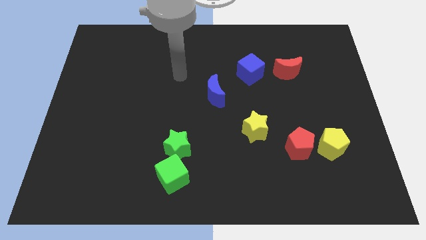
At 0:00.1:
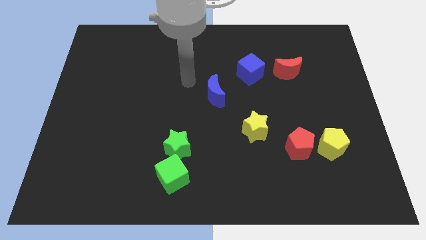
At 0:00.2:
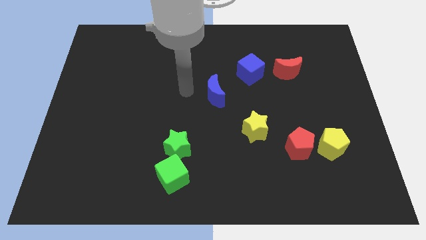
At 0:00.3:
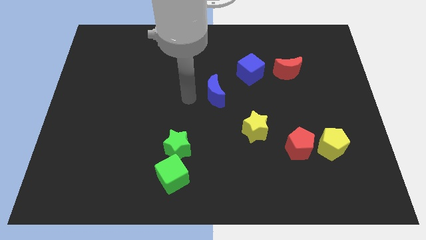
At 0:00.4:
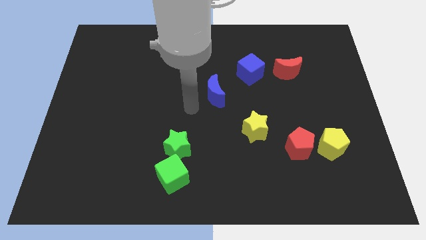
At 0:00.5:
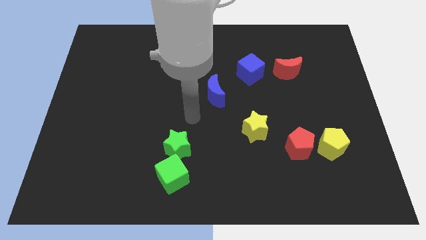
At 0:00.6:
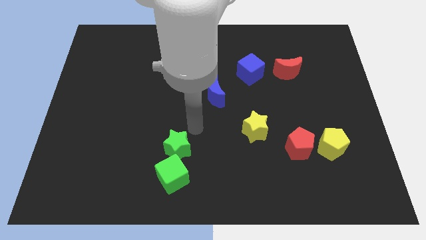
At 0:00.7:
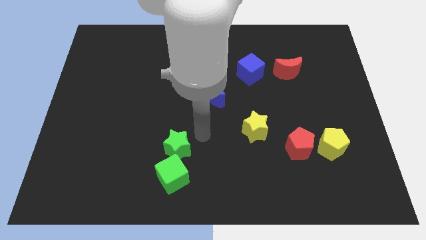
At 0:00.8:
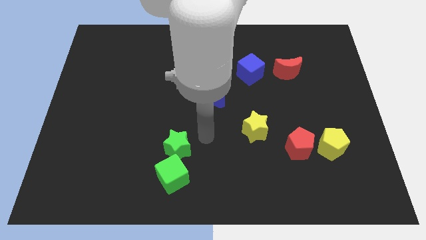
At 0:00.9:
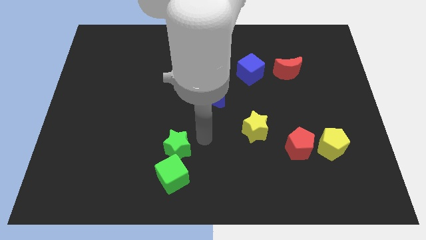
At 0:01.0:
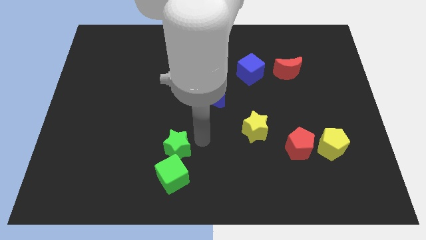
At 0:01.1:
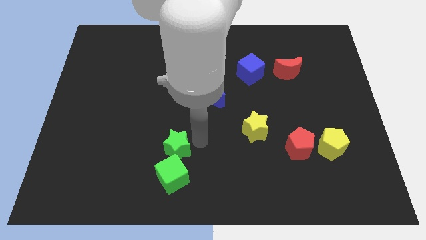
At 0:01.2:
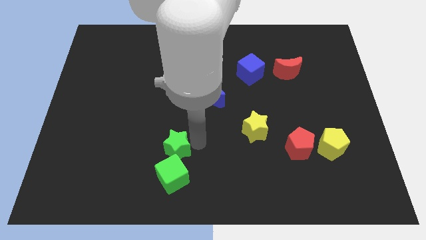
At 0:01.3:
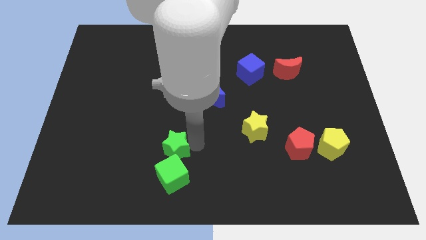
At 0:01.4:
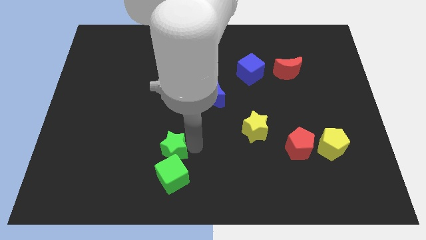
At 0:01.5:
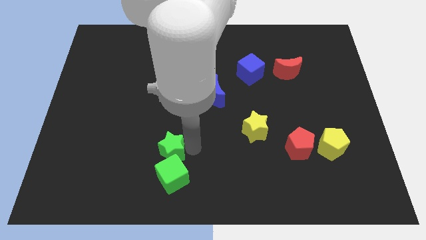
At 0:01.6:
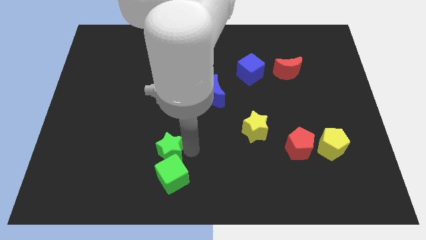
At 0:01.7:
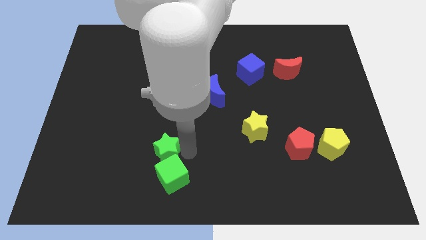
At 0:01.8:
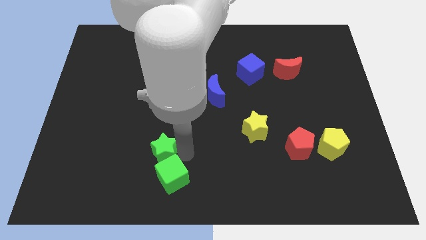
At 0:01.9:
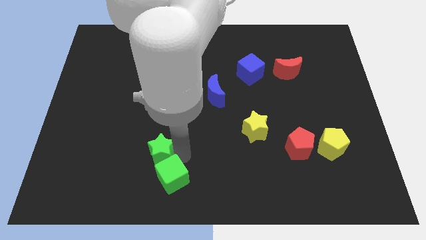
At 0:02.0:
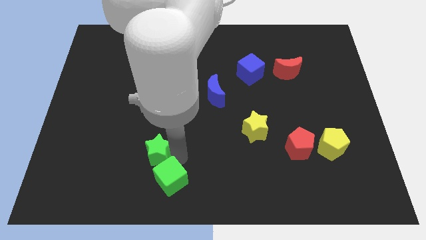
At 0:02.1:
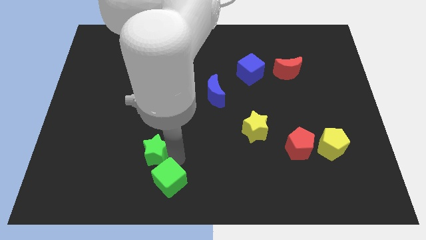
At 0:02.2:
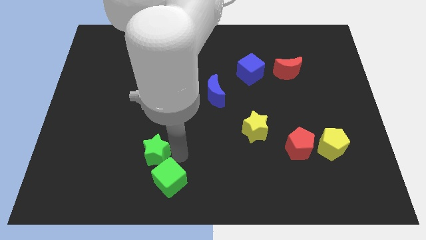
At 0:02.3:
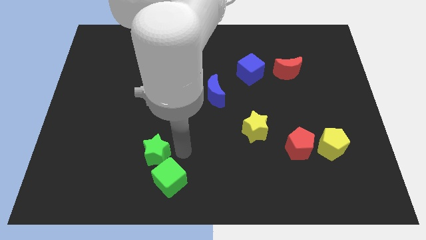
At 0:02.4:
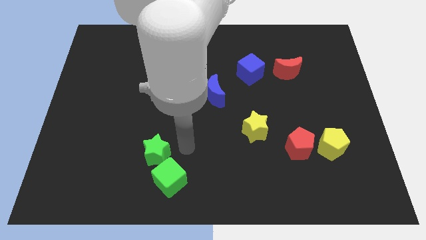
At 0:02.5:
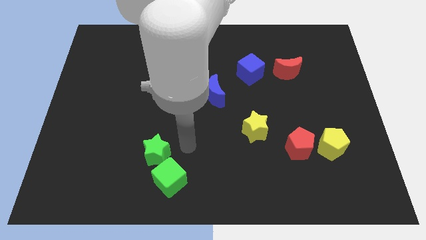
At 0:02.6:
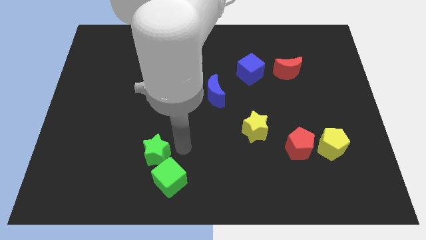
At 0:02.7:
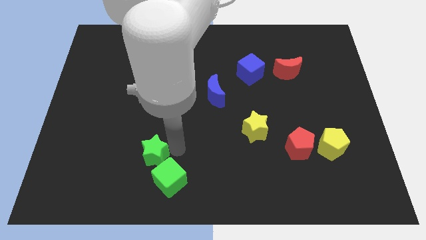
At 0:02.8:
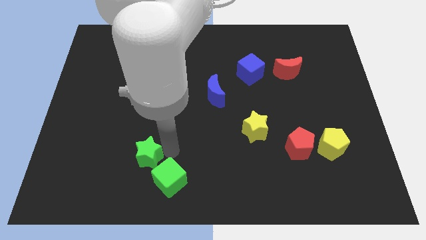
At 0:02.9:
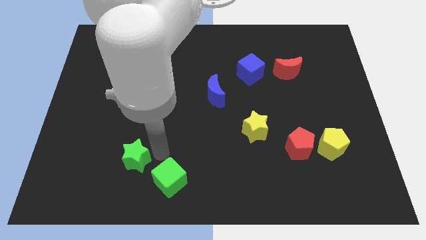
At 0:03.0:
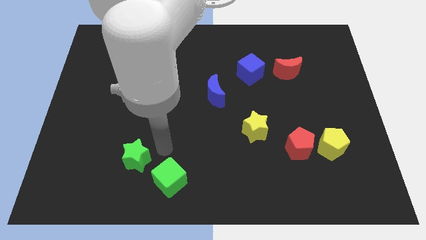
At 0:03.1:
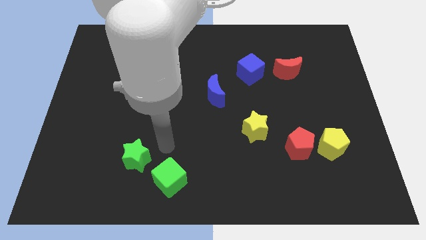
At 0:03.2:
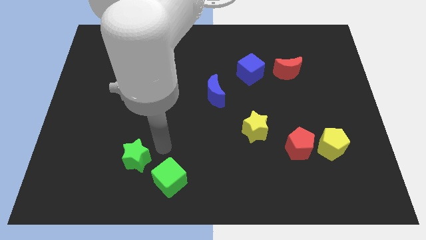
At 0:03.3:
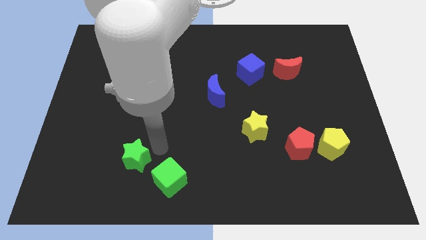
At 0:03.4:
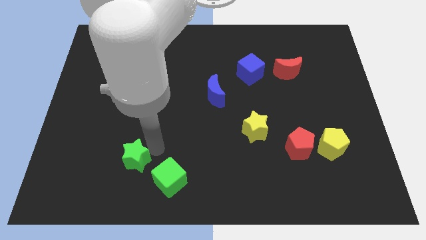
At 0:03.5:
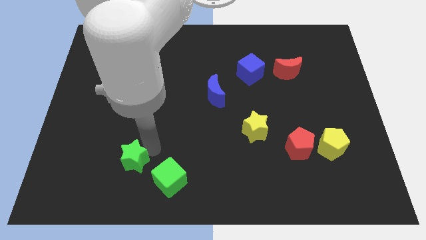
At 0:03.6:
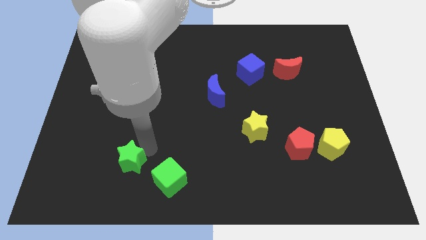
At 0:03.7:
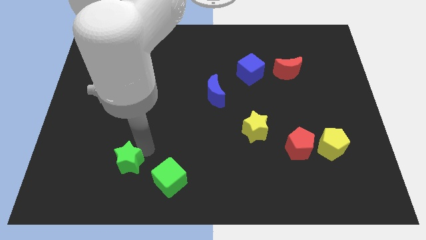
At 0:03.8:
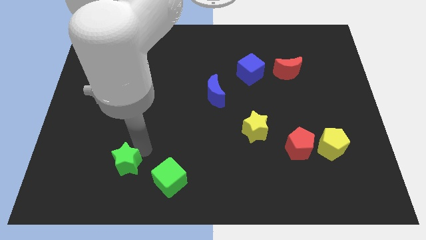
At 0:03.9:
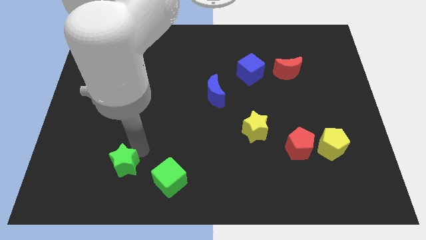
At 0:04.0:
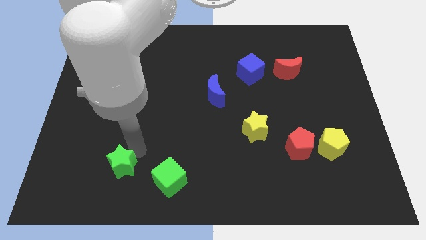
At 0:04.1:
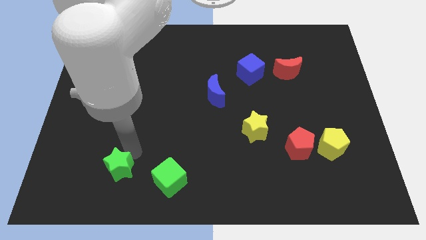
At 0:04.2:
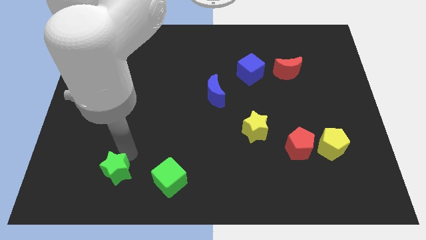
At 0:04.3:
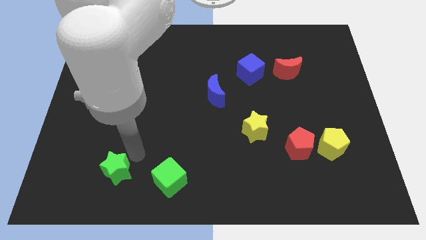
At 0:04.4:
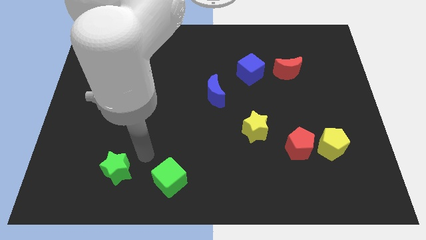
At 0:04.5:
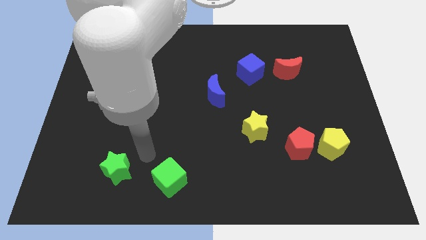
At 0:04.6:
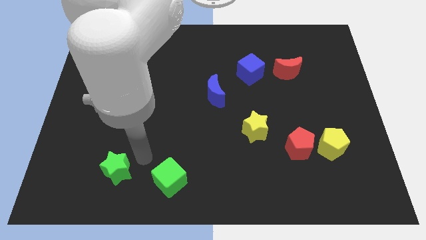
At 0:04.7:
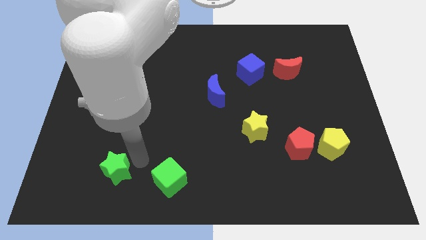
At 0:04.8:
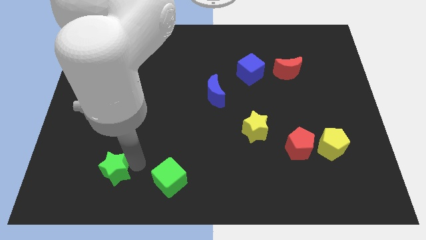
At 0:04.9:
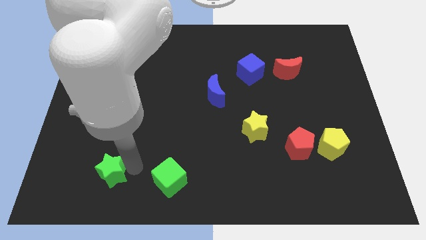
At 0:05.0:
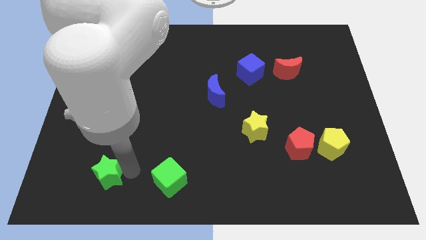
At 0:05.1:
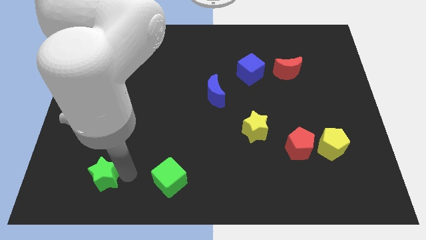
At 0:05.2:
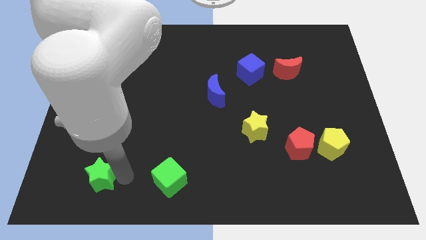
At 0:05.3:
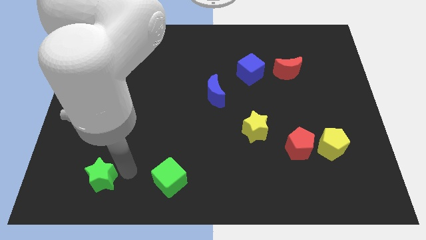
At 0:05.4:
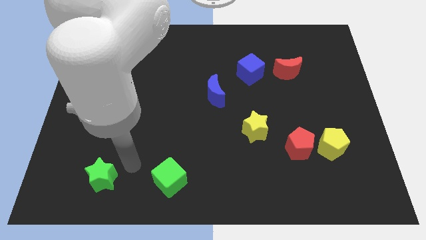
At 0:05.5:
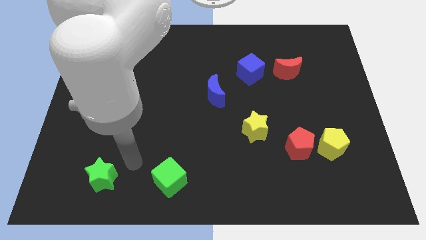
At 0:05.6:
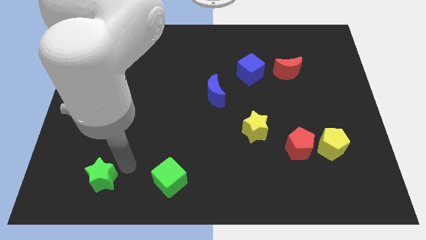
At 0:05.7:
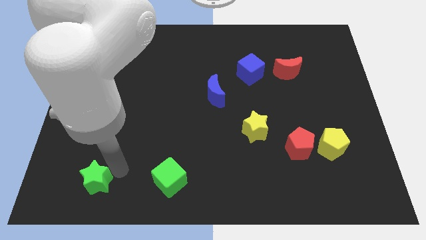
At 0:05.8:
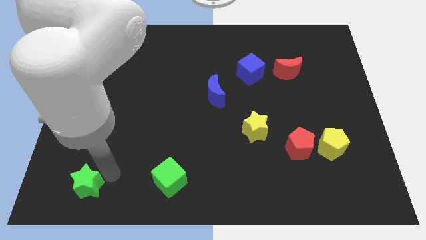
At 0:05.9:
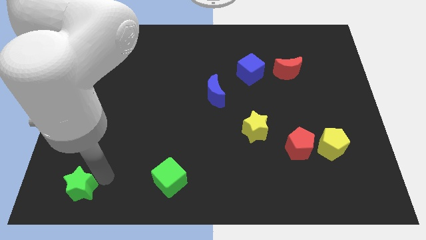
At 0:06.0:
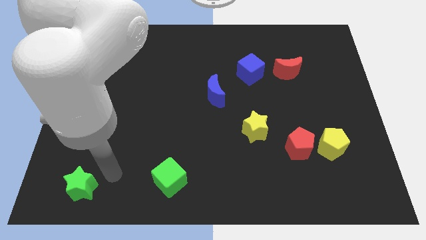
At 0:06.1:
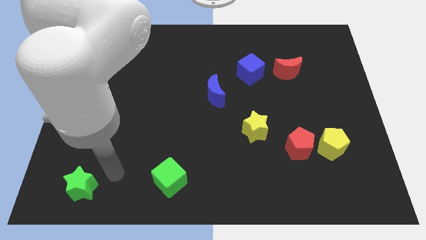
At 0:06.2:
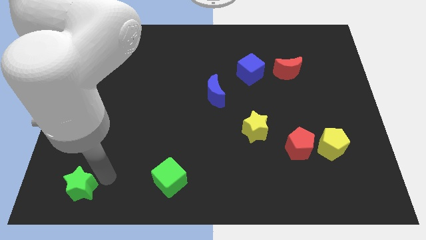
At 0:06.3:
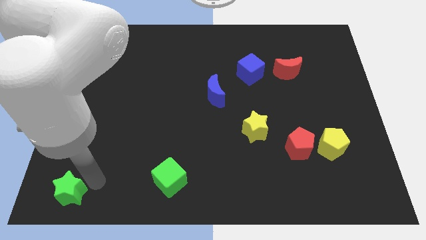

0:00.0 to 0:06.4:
slide the green star to the bottom left corner

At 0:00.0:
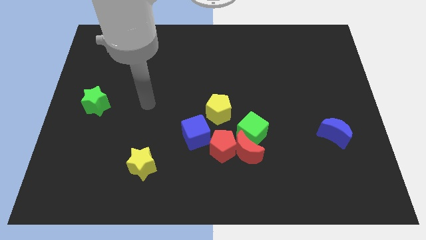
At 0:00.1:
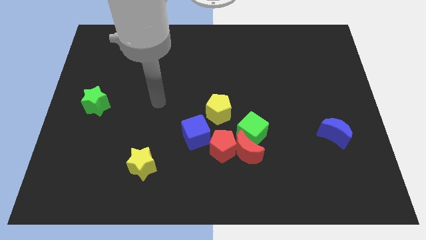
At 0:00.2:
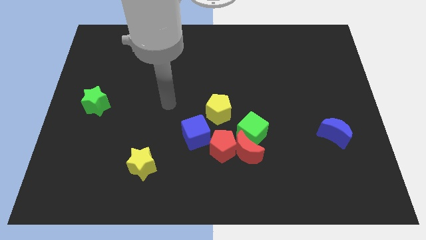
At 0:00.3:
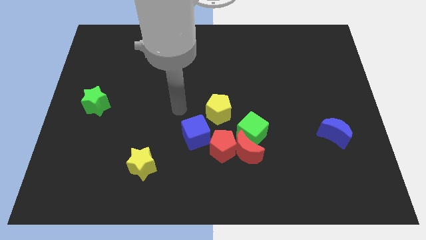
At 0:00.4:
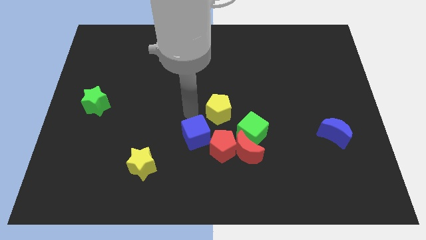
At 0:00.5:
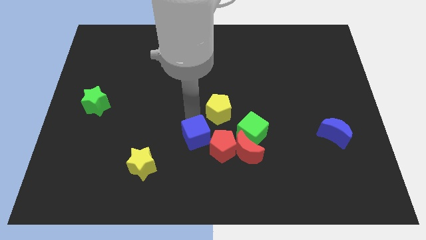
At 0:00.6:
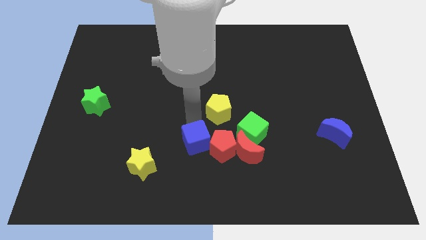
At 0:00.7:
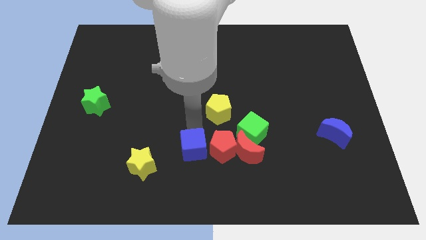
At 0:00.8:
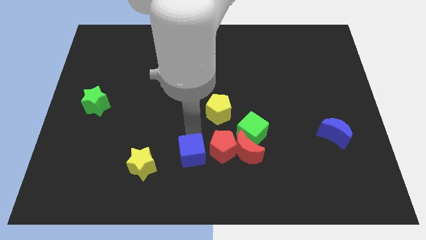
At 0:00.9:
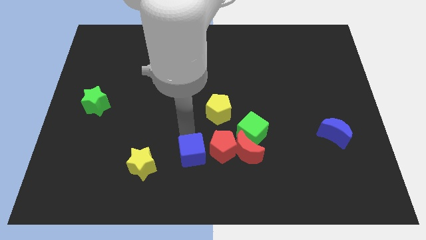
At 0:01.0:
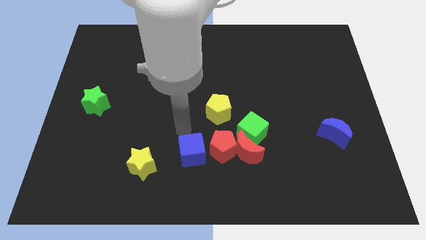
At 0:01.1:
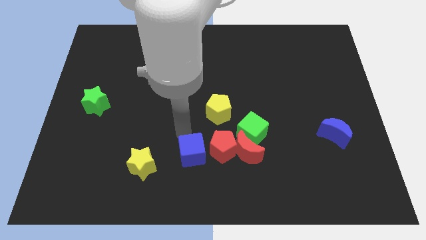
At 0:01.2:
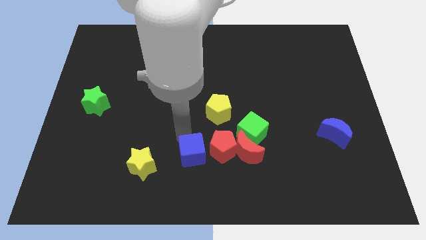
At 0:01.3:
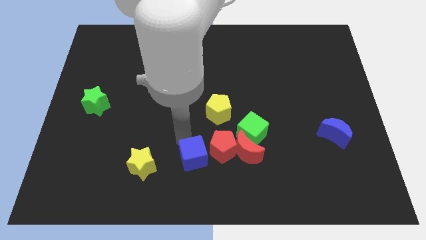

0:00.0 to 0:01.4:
slide the blue cube to the bottom side

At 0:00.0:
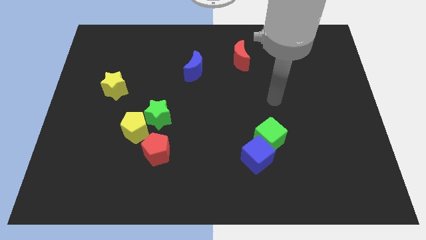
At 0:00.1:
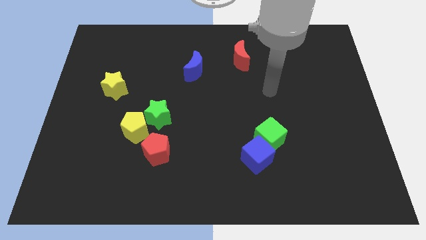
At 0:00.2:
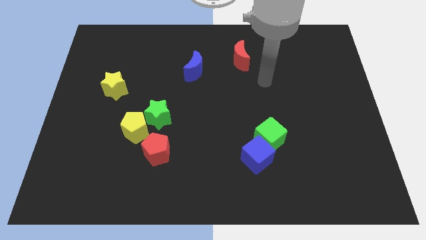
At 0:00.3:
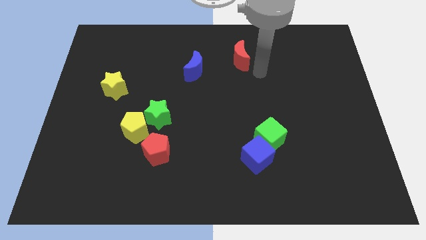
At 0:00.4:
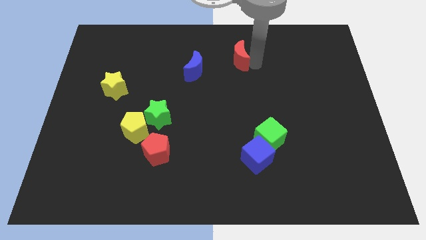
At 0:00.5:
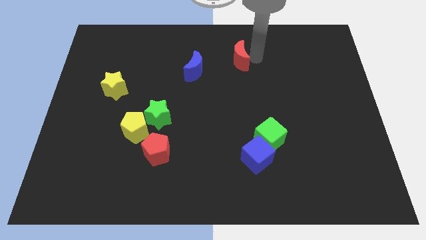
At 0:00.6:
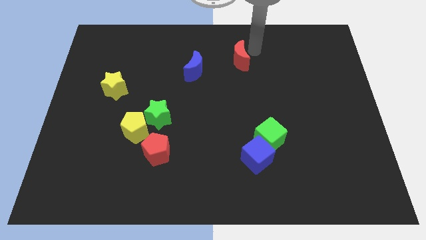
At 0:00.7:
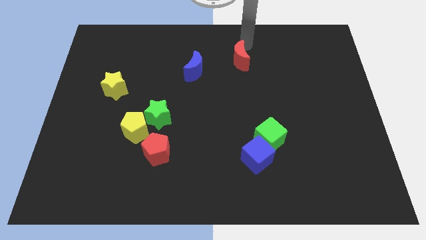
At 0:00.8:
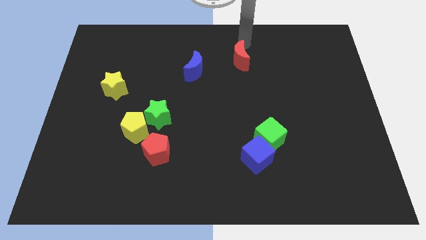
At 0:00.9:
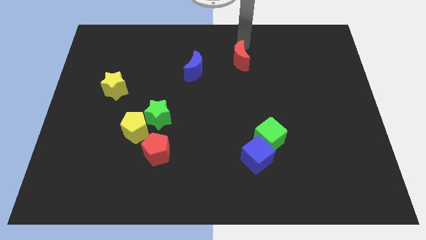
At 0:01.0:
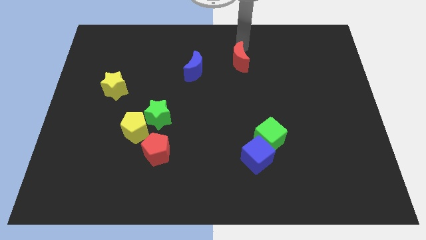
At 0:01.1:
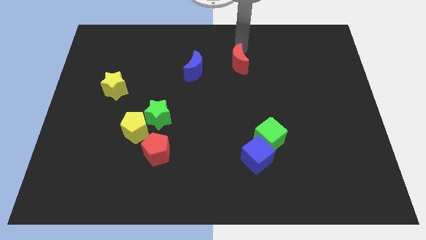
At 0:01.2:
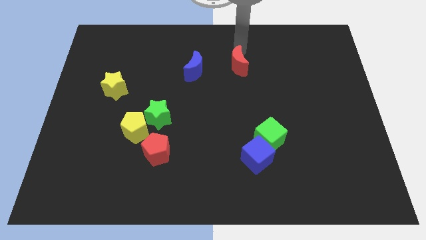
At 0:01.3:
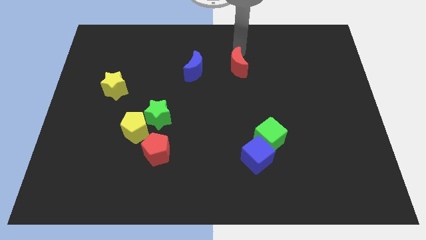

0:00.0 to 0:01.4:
slide the red moon to the center of the board
